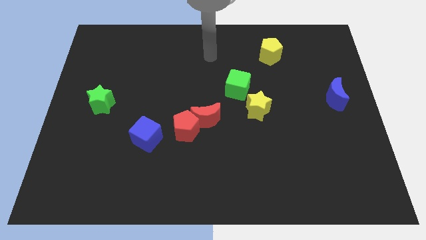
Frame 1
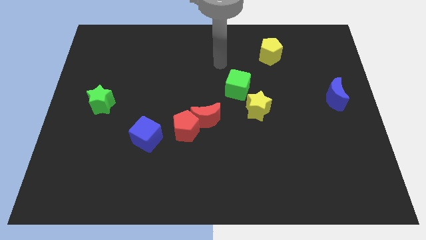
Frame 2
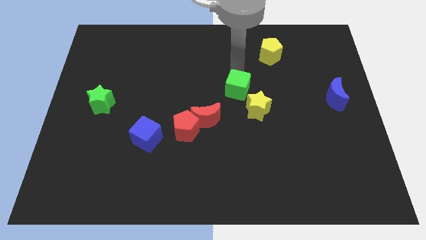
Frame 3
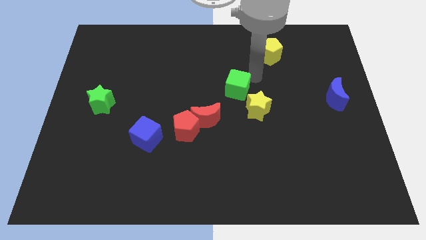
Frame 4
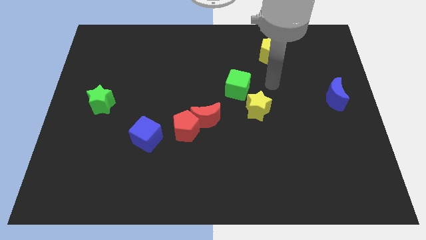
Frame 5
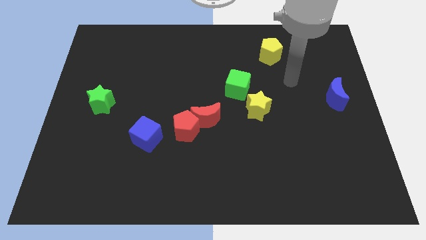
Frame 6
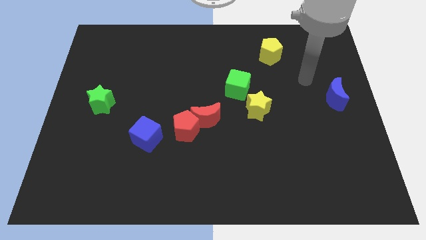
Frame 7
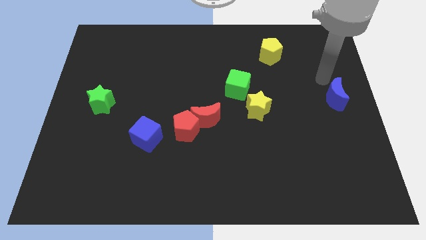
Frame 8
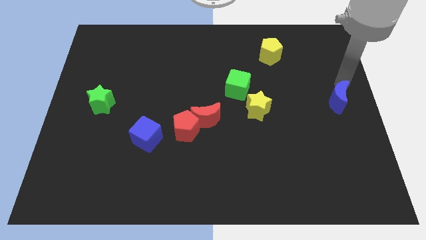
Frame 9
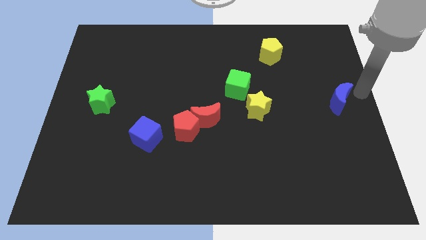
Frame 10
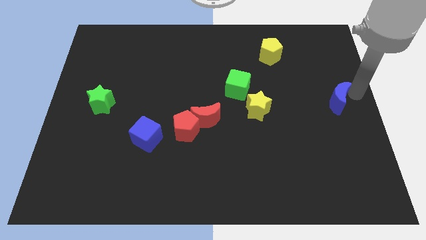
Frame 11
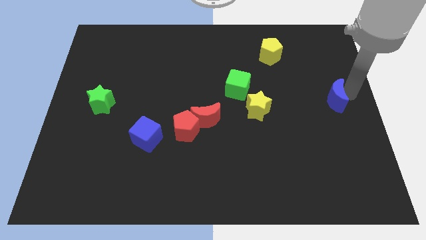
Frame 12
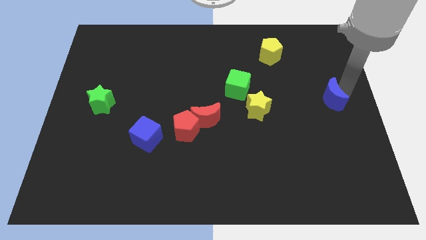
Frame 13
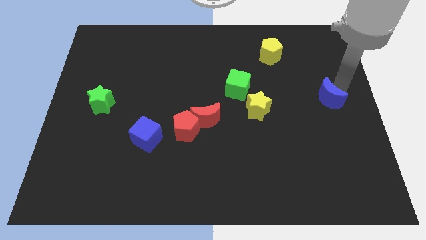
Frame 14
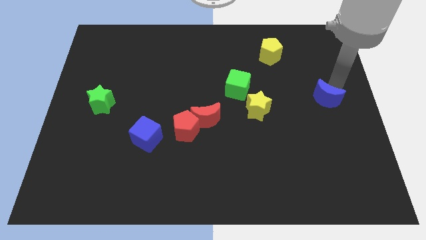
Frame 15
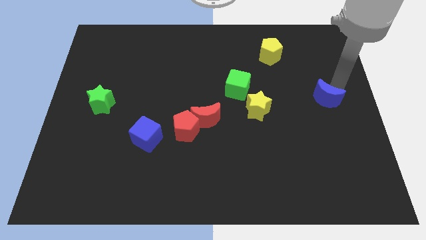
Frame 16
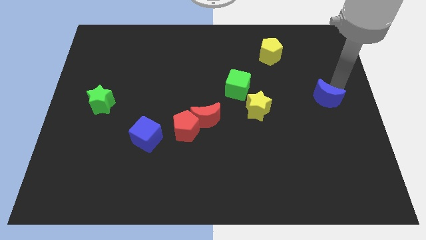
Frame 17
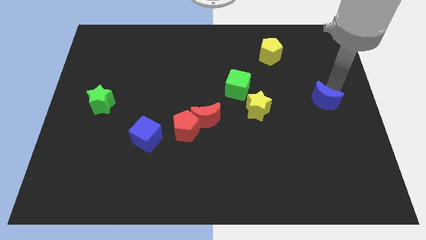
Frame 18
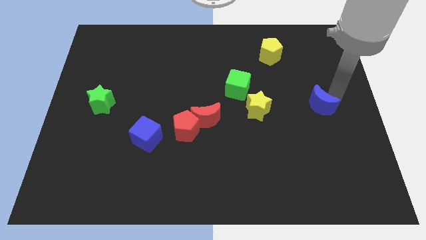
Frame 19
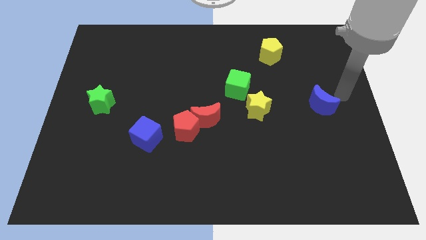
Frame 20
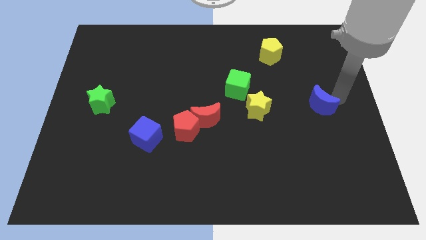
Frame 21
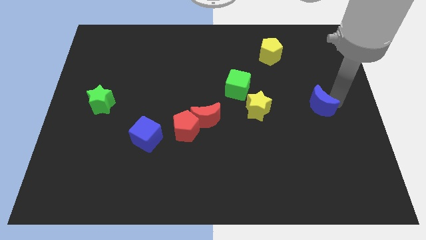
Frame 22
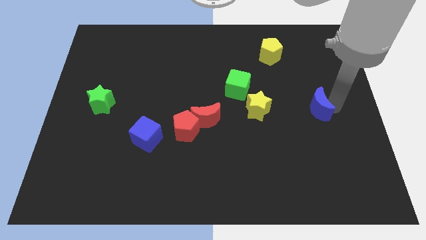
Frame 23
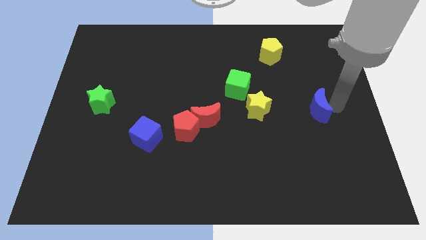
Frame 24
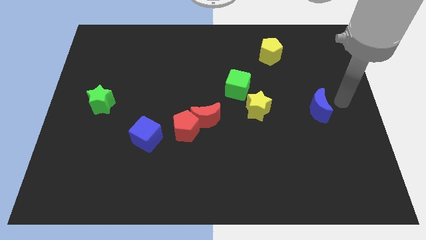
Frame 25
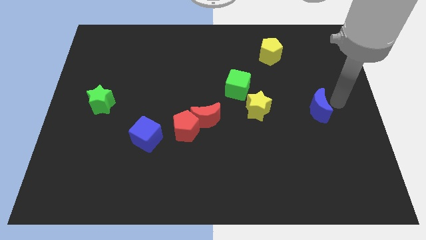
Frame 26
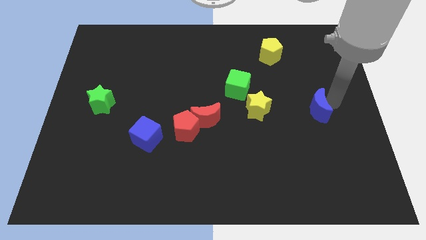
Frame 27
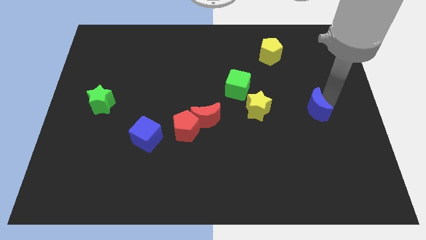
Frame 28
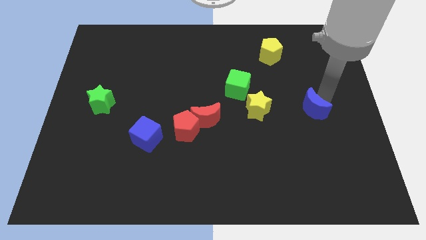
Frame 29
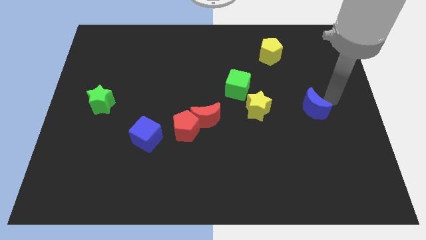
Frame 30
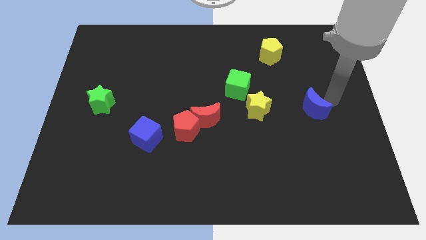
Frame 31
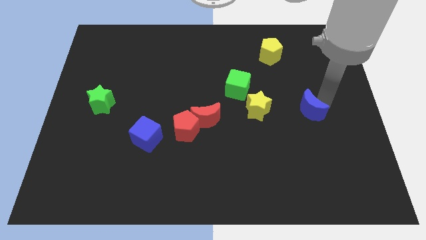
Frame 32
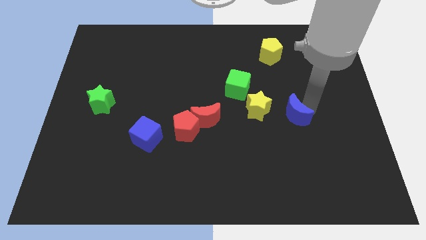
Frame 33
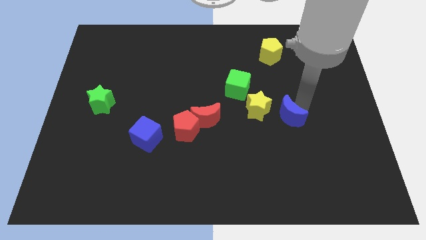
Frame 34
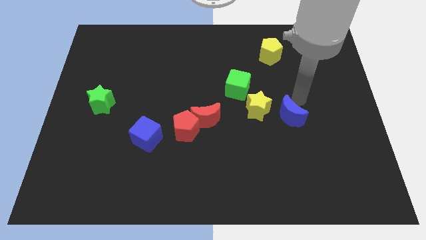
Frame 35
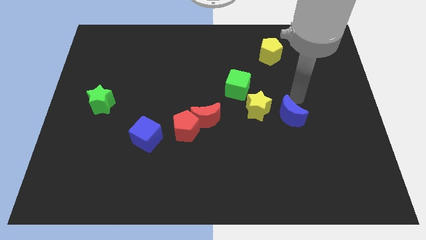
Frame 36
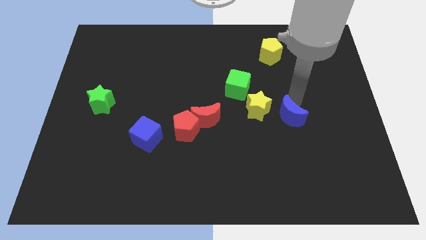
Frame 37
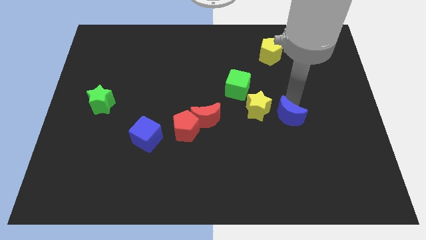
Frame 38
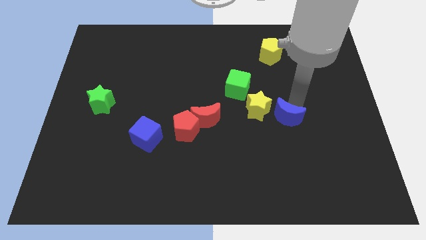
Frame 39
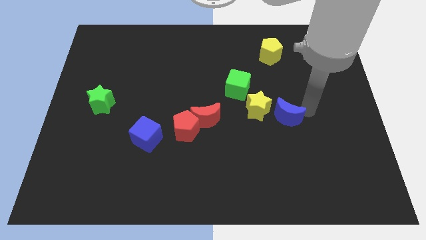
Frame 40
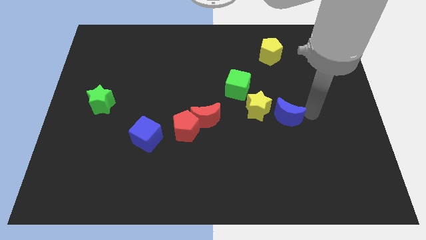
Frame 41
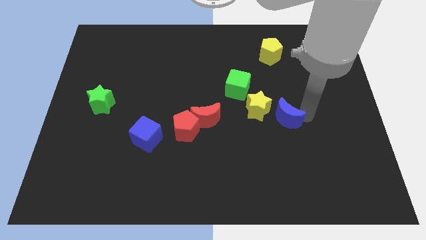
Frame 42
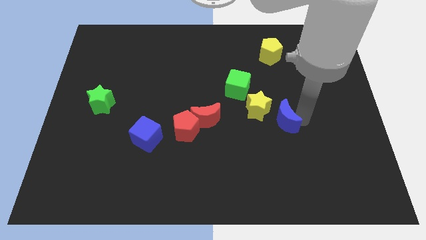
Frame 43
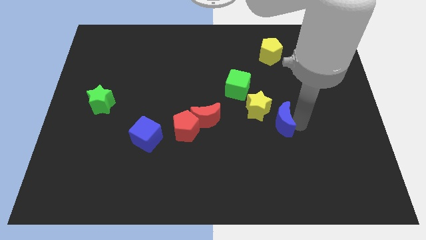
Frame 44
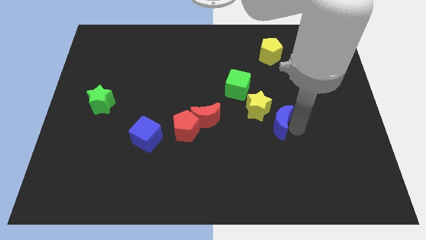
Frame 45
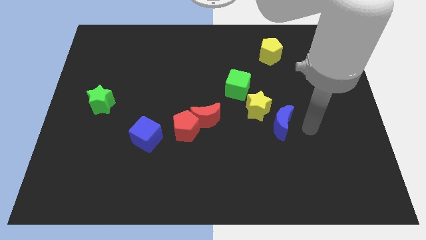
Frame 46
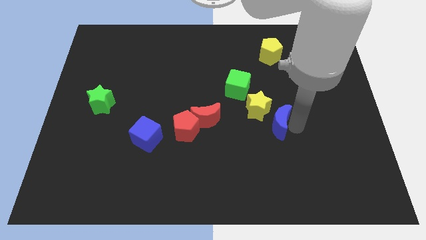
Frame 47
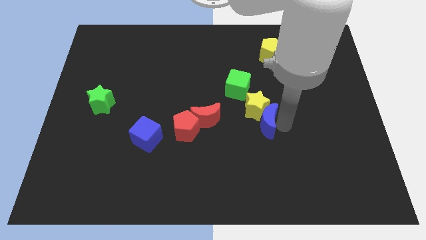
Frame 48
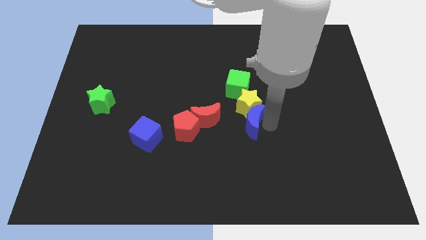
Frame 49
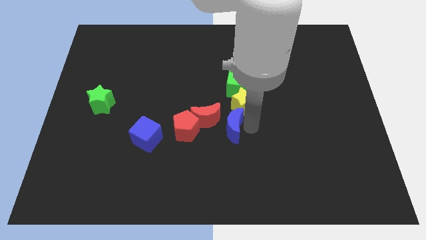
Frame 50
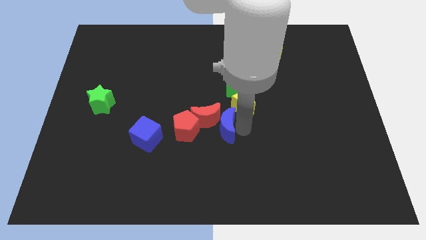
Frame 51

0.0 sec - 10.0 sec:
push the blue moon close to the red moon

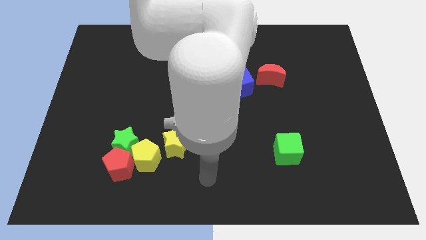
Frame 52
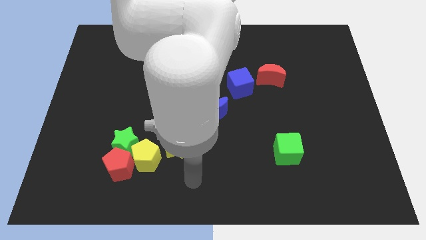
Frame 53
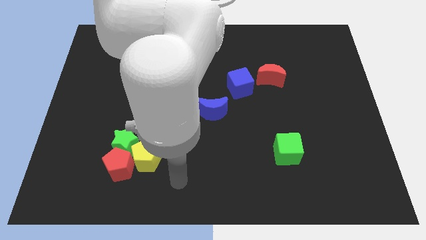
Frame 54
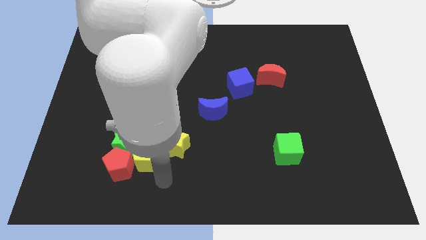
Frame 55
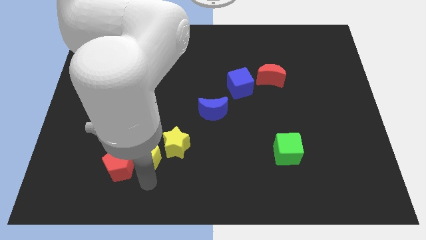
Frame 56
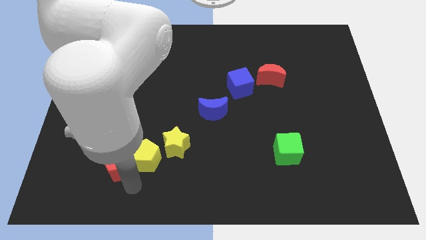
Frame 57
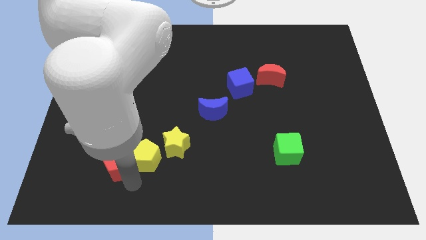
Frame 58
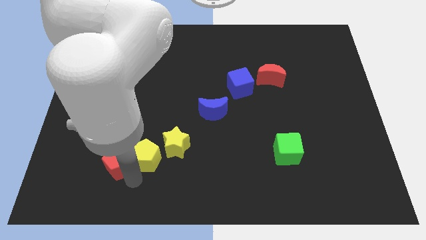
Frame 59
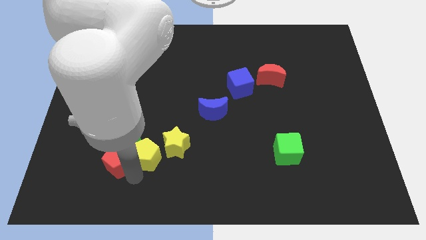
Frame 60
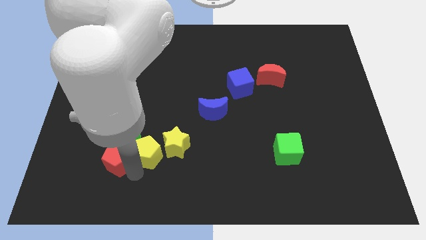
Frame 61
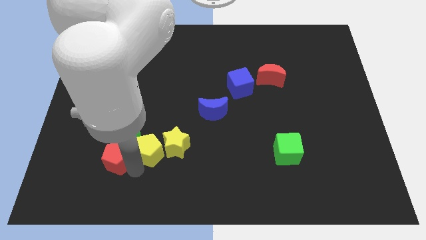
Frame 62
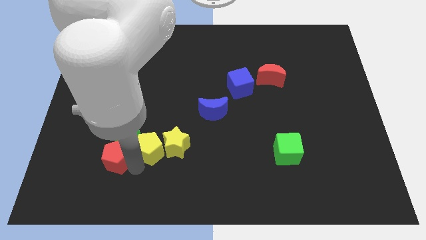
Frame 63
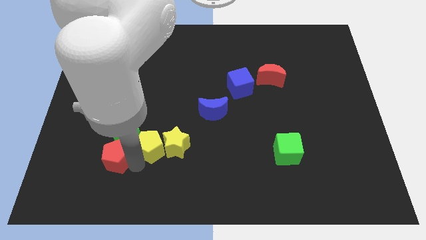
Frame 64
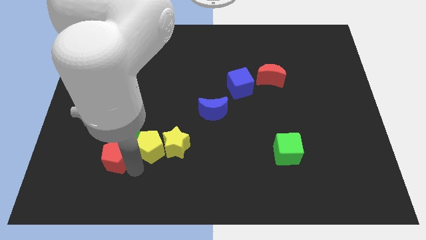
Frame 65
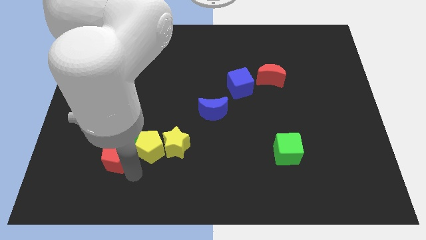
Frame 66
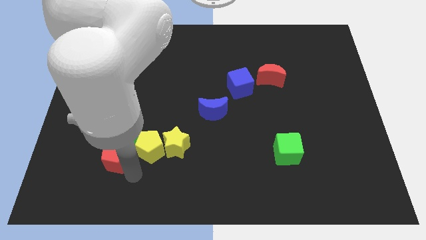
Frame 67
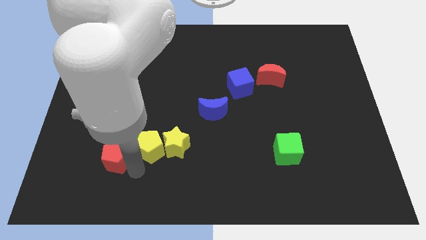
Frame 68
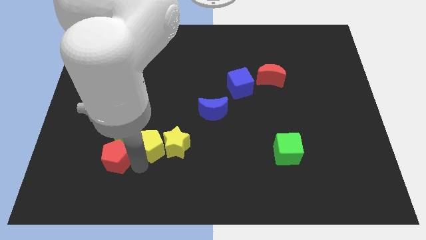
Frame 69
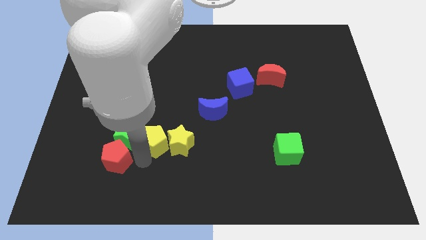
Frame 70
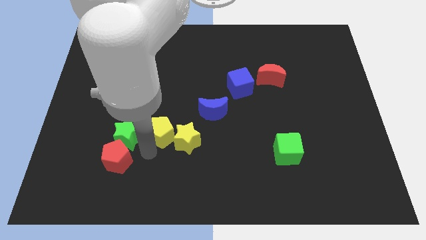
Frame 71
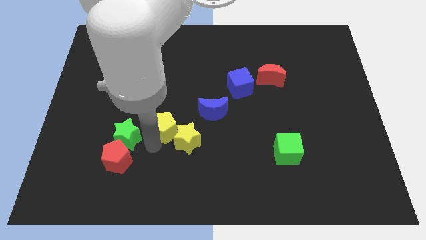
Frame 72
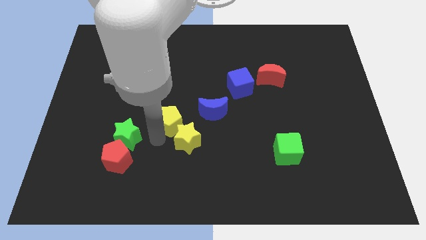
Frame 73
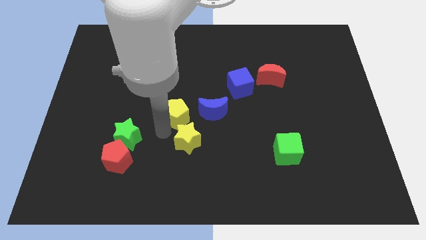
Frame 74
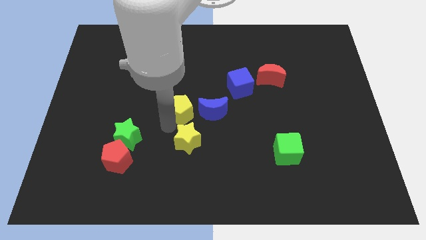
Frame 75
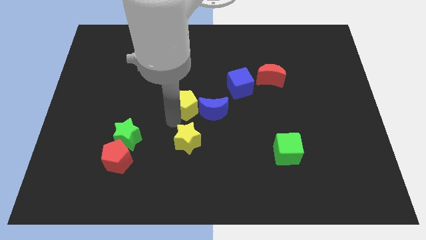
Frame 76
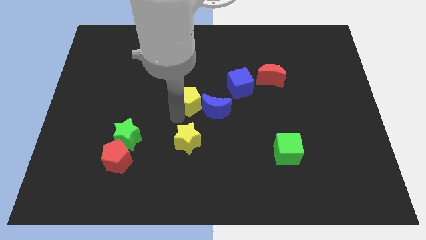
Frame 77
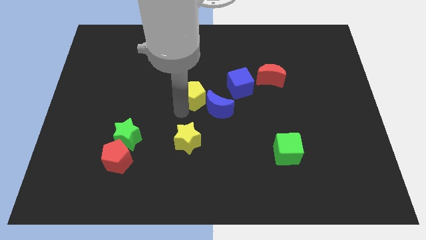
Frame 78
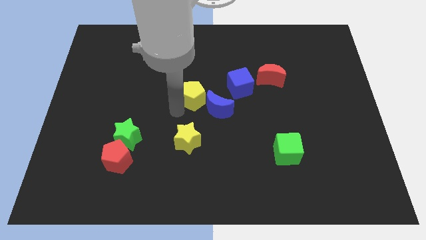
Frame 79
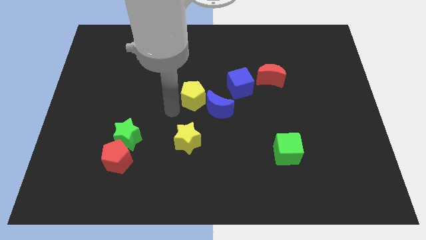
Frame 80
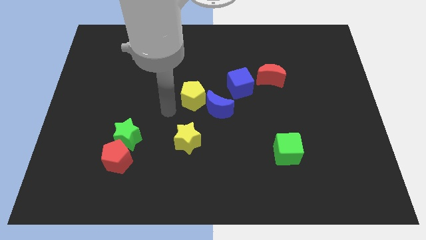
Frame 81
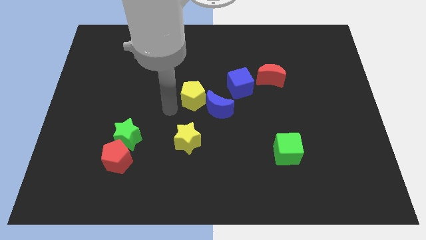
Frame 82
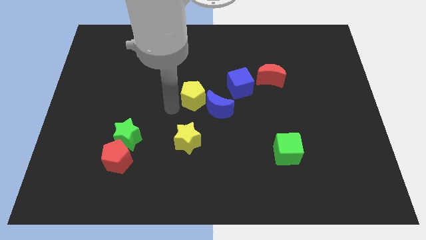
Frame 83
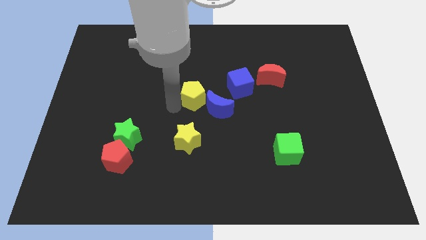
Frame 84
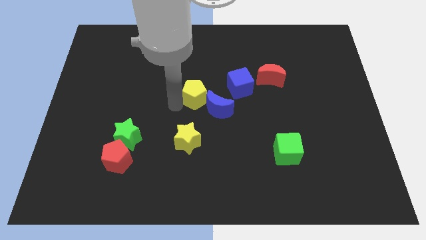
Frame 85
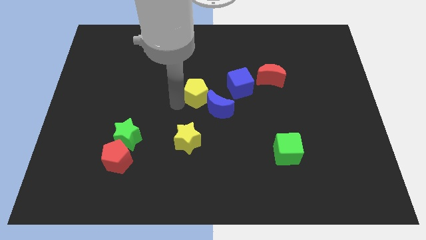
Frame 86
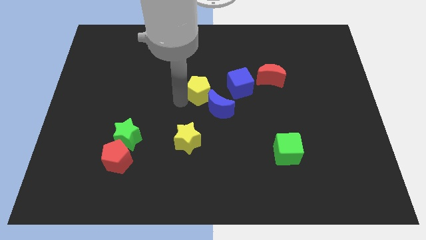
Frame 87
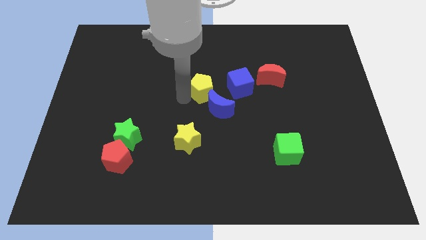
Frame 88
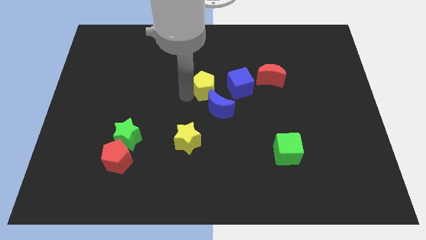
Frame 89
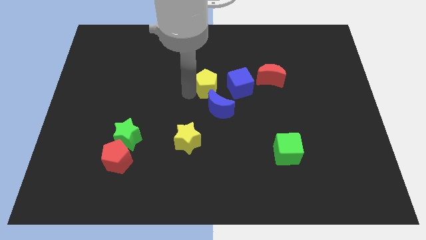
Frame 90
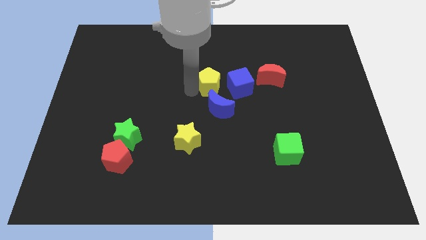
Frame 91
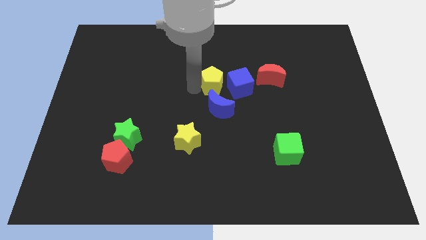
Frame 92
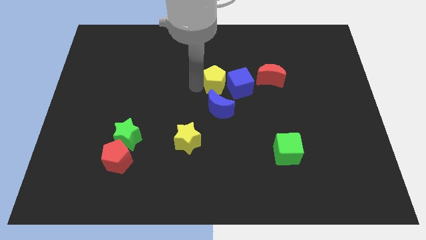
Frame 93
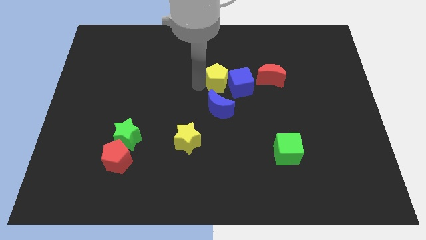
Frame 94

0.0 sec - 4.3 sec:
slide the yellow pentagon next to the blue cube
